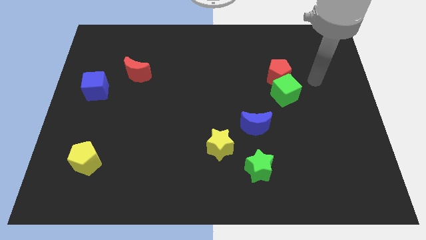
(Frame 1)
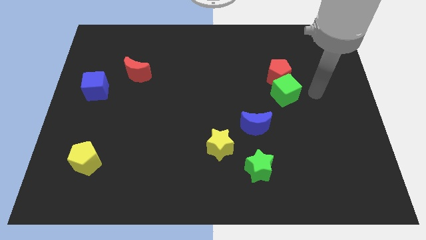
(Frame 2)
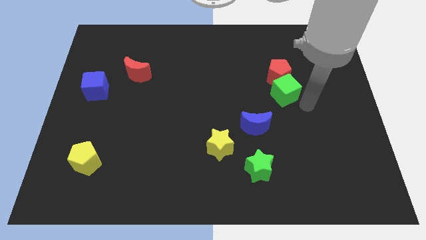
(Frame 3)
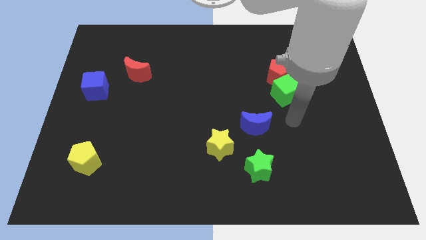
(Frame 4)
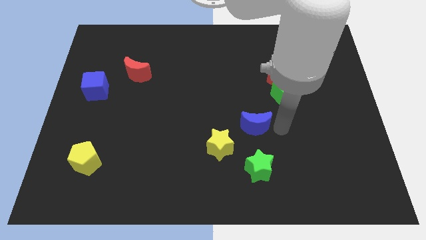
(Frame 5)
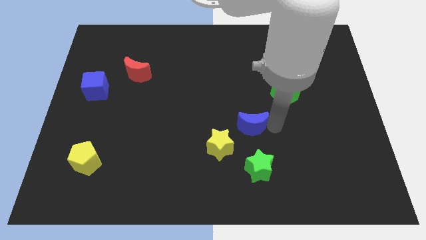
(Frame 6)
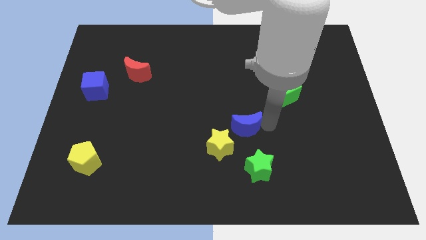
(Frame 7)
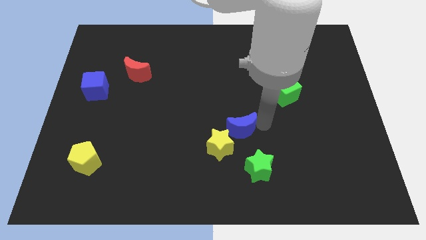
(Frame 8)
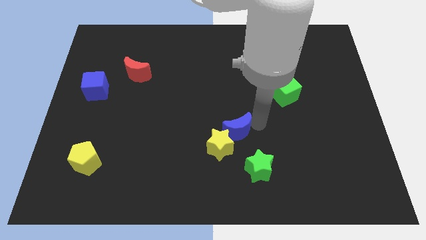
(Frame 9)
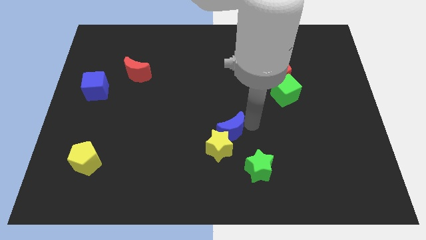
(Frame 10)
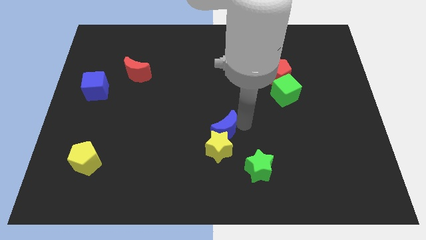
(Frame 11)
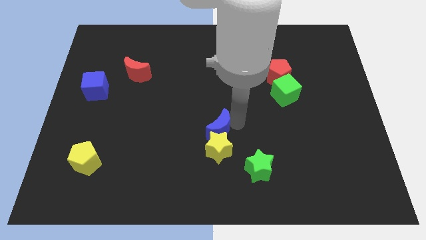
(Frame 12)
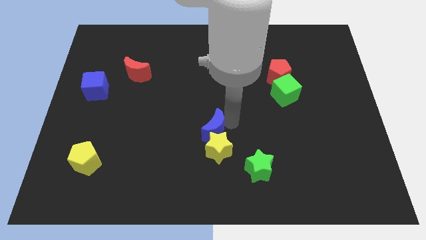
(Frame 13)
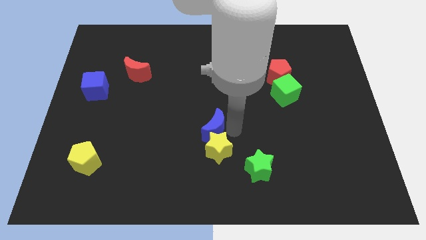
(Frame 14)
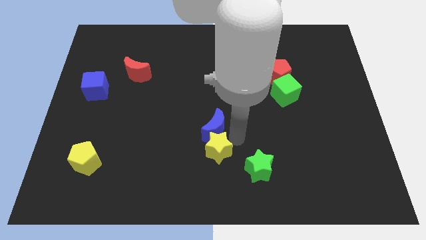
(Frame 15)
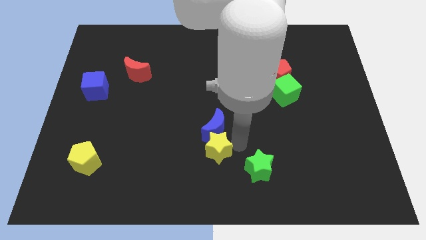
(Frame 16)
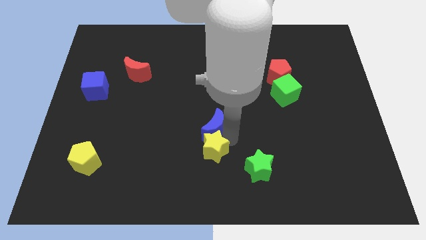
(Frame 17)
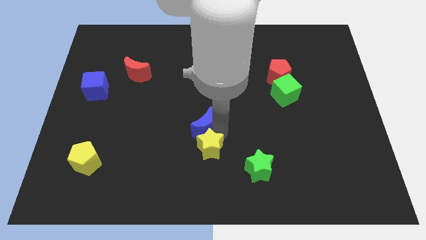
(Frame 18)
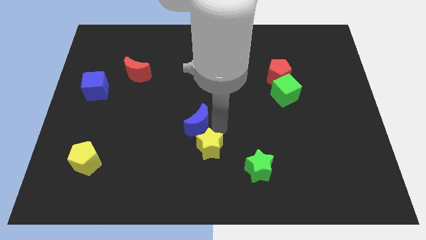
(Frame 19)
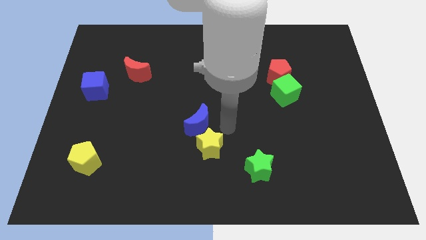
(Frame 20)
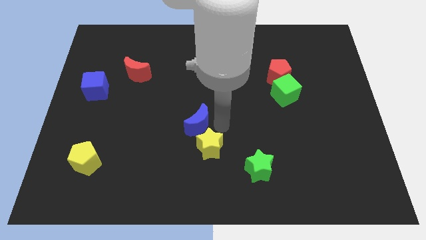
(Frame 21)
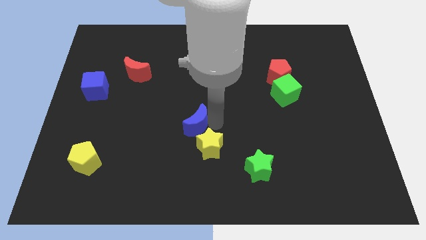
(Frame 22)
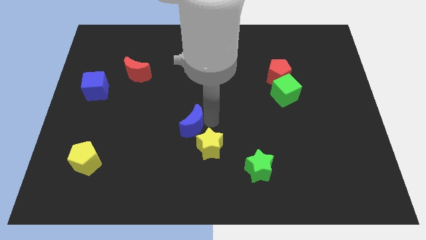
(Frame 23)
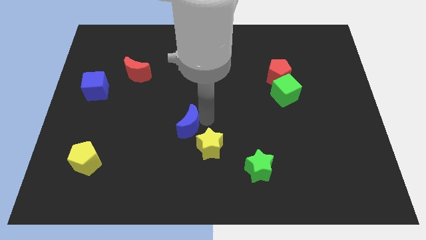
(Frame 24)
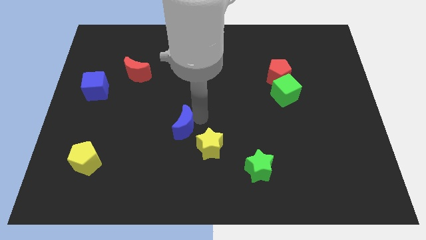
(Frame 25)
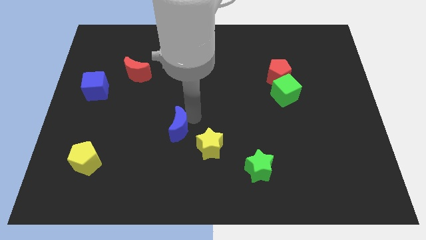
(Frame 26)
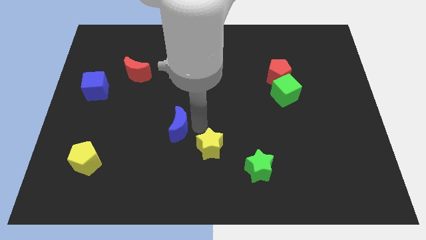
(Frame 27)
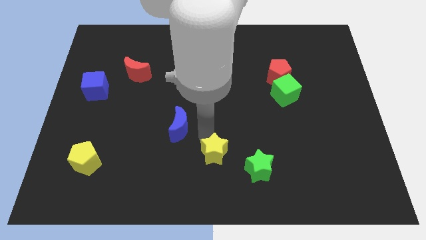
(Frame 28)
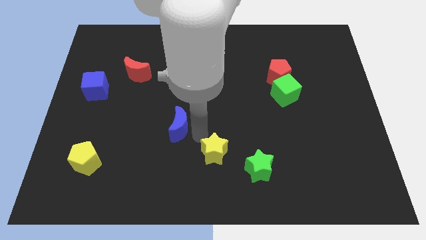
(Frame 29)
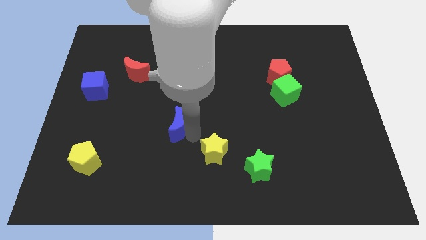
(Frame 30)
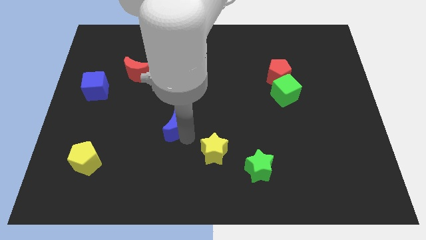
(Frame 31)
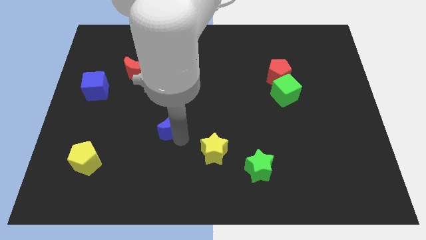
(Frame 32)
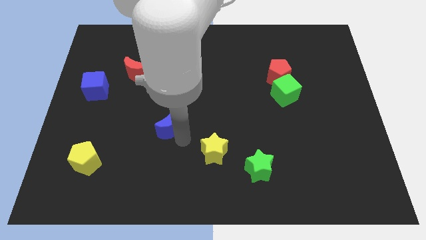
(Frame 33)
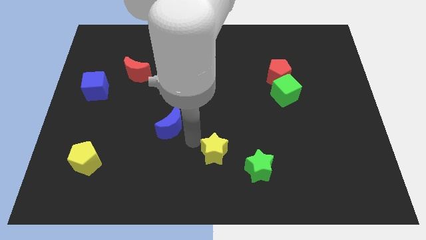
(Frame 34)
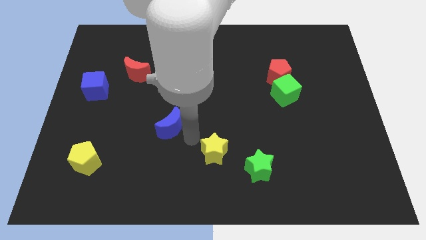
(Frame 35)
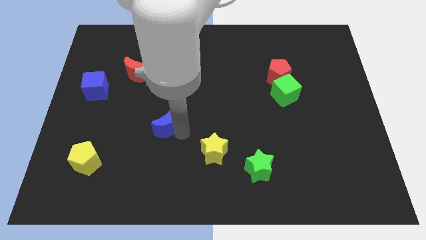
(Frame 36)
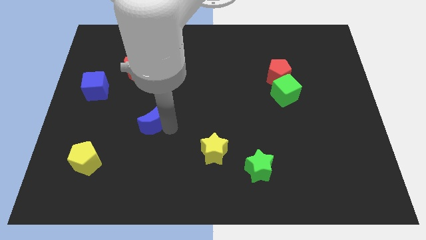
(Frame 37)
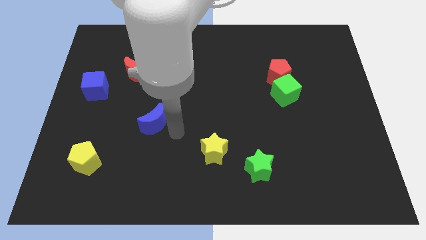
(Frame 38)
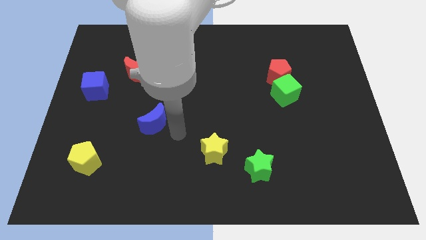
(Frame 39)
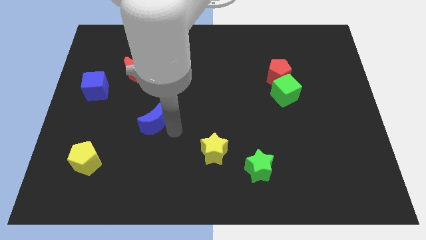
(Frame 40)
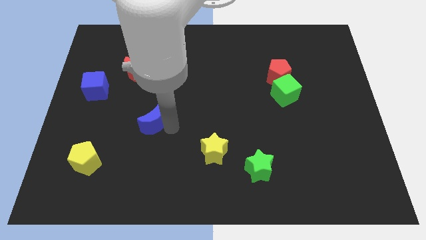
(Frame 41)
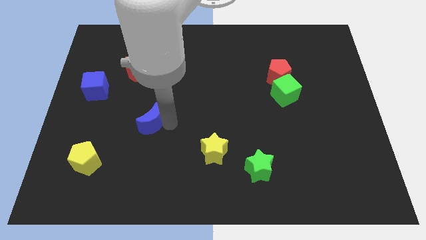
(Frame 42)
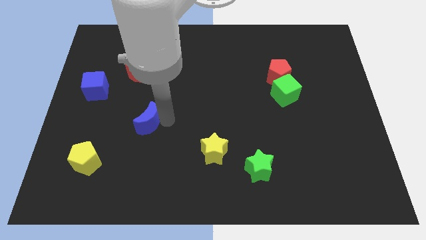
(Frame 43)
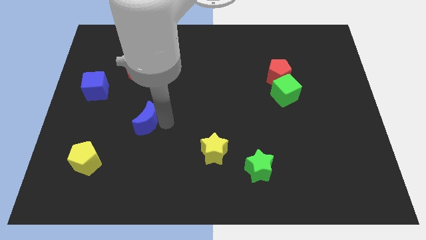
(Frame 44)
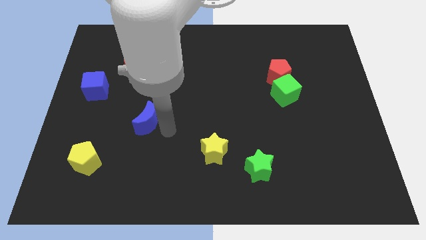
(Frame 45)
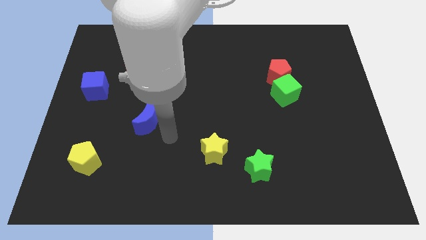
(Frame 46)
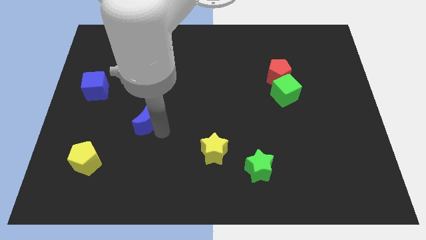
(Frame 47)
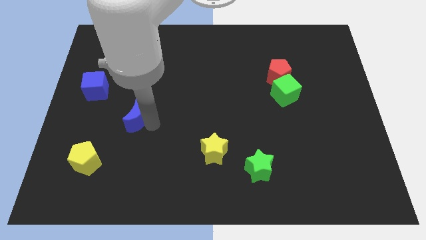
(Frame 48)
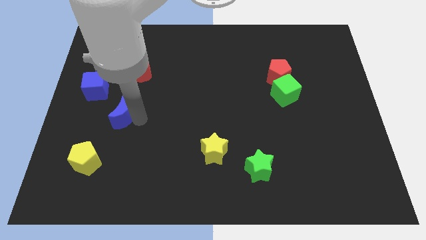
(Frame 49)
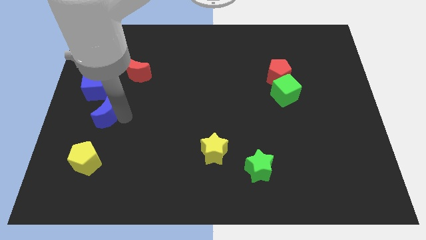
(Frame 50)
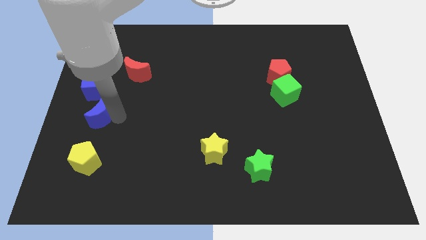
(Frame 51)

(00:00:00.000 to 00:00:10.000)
slide the blue moon to the left side

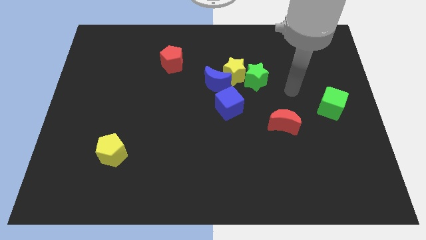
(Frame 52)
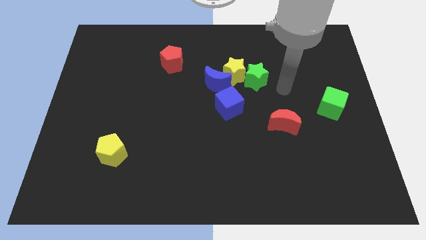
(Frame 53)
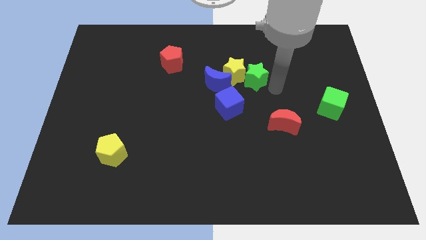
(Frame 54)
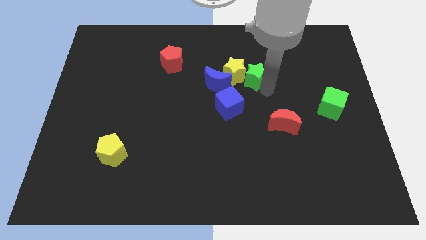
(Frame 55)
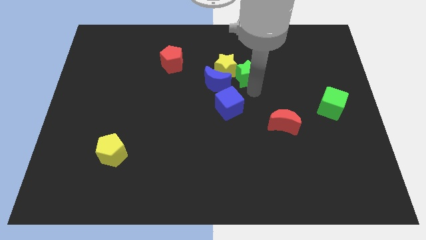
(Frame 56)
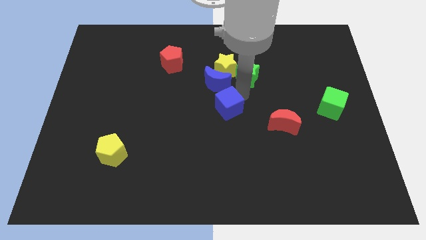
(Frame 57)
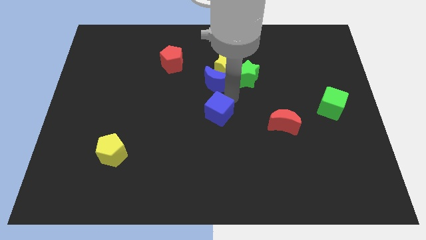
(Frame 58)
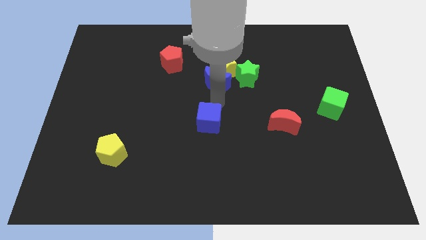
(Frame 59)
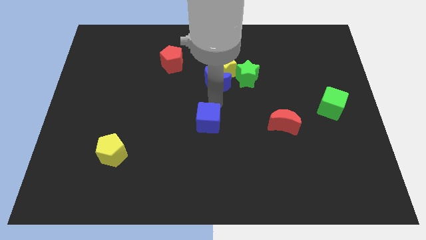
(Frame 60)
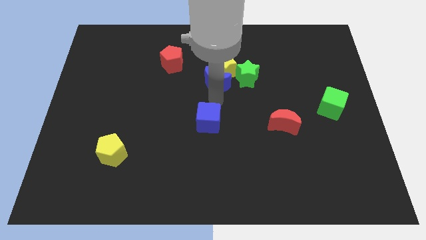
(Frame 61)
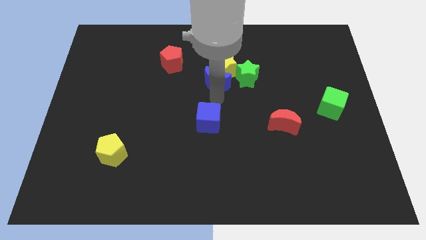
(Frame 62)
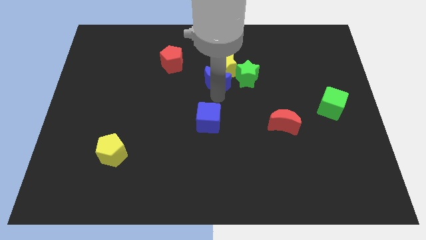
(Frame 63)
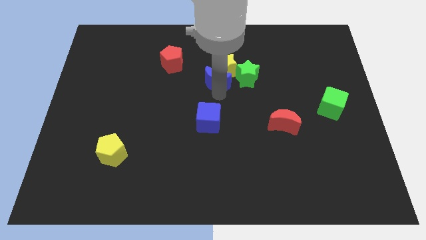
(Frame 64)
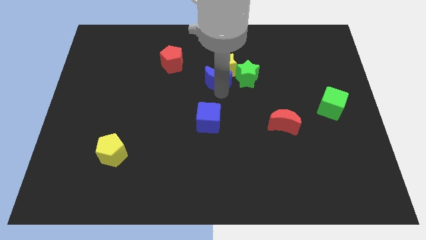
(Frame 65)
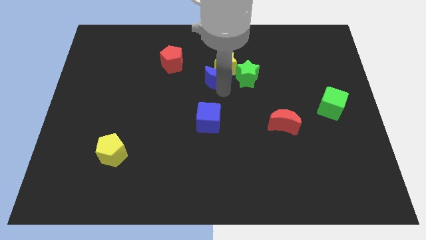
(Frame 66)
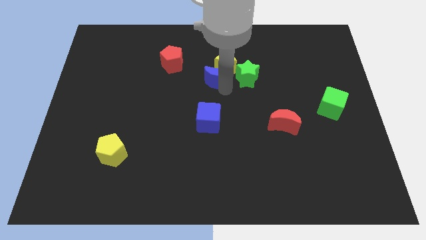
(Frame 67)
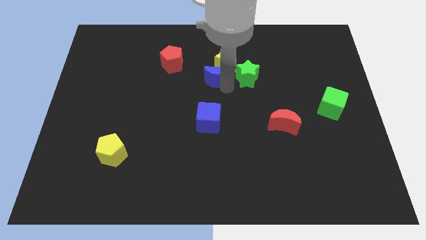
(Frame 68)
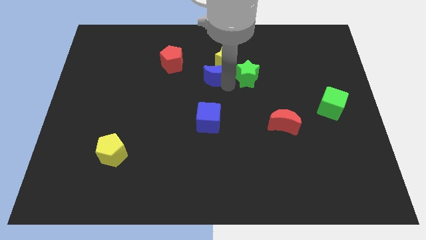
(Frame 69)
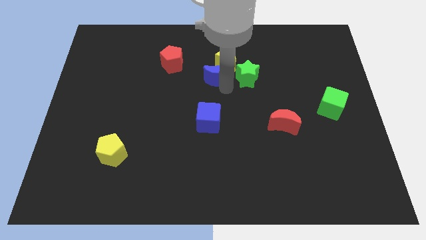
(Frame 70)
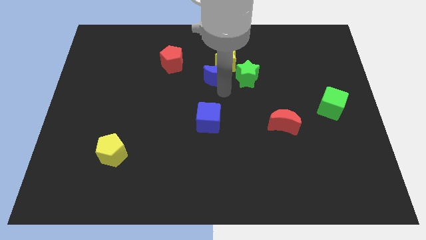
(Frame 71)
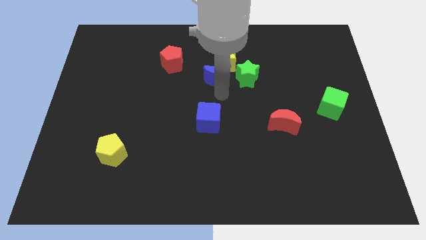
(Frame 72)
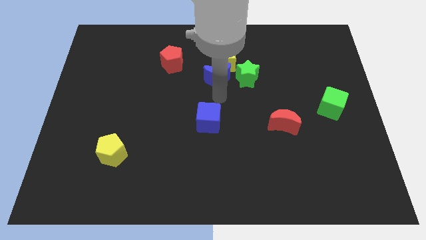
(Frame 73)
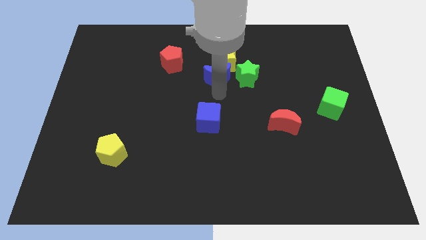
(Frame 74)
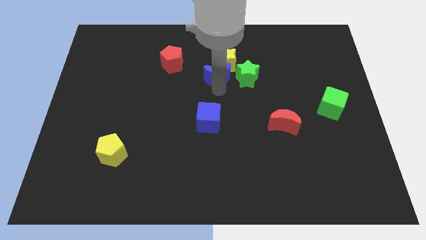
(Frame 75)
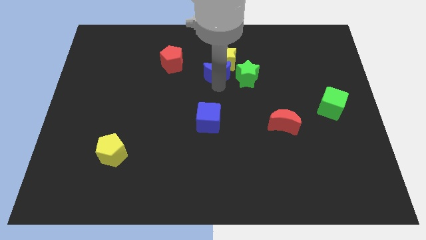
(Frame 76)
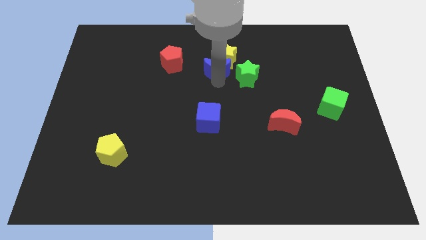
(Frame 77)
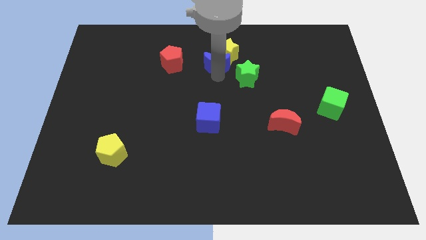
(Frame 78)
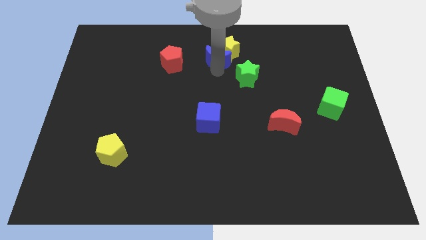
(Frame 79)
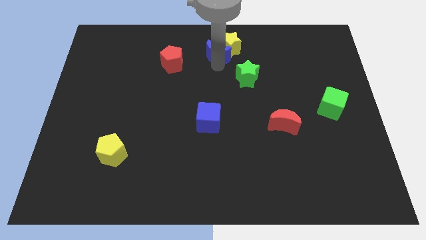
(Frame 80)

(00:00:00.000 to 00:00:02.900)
move the blue moon to the top
